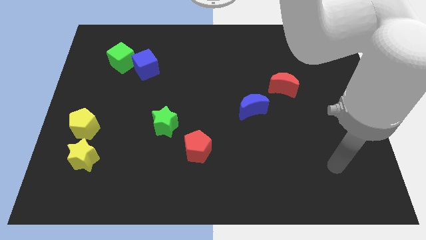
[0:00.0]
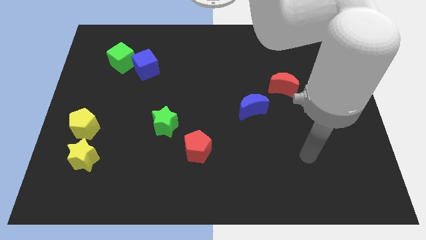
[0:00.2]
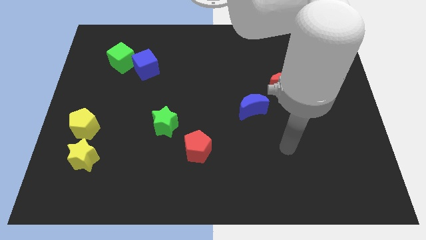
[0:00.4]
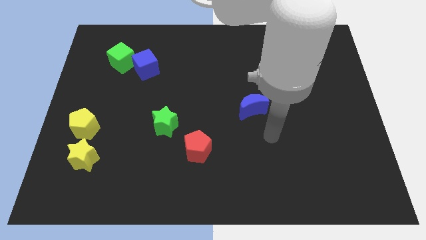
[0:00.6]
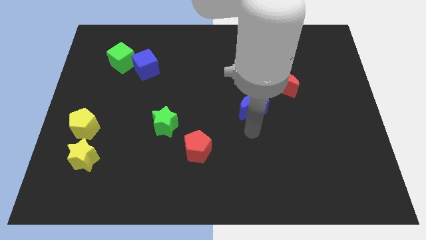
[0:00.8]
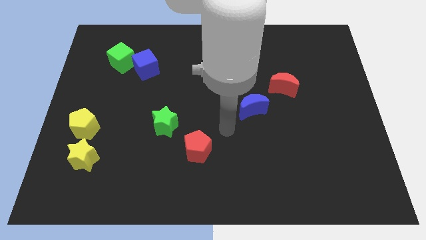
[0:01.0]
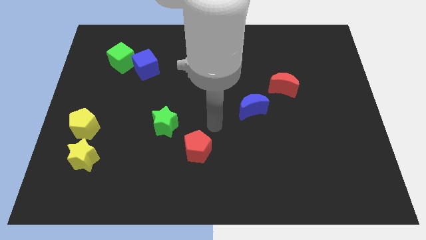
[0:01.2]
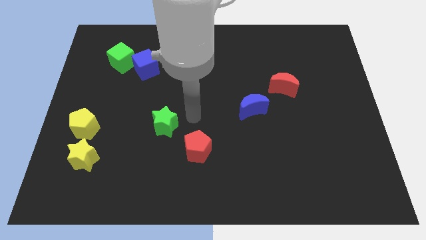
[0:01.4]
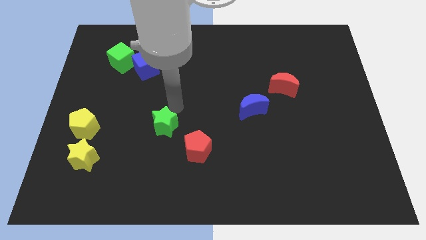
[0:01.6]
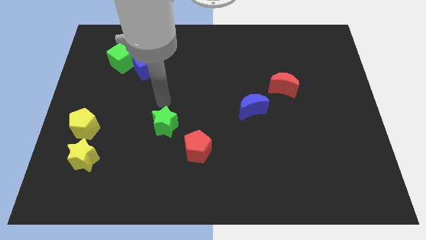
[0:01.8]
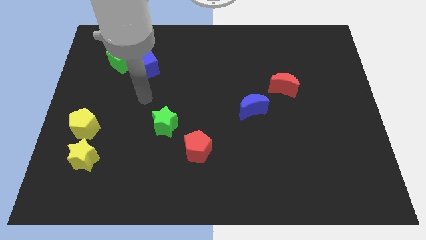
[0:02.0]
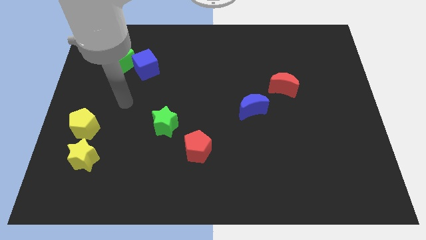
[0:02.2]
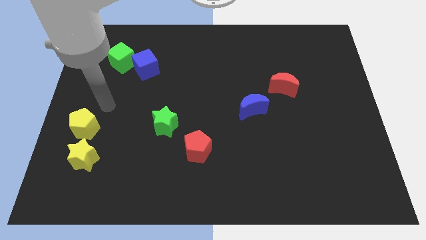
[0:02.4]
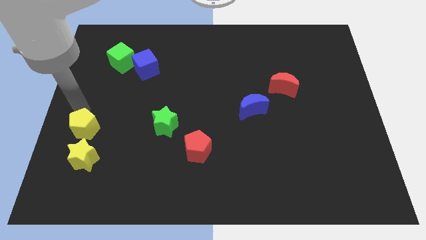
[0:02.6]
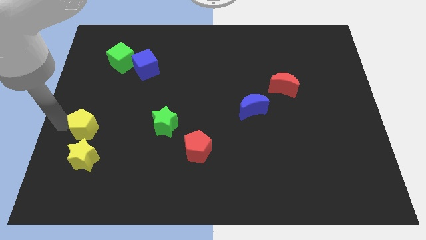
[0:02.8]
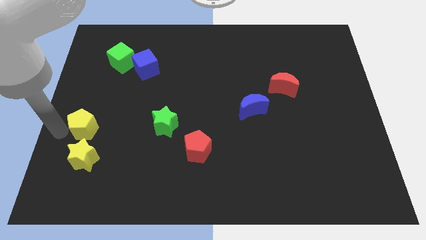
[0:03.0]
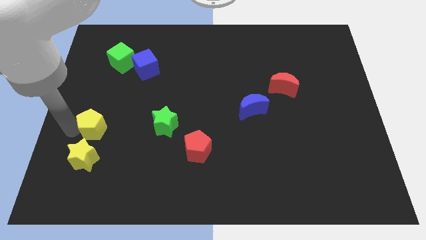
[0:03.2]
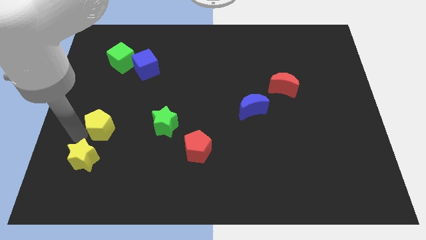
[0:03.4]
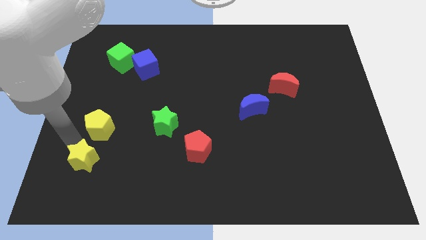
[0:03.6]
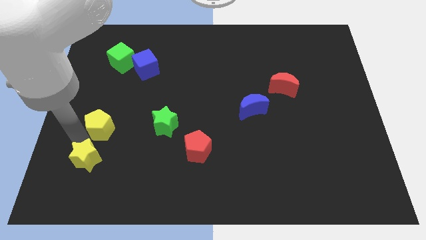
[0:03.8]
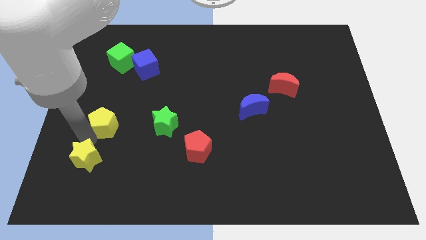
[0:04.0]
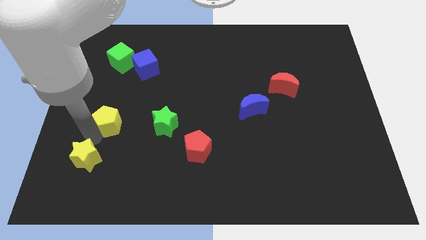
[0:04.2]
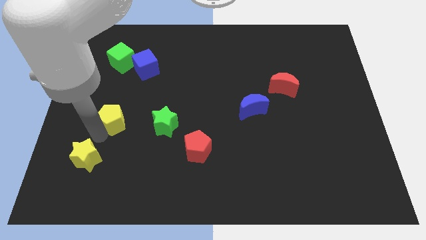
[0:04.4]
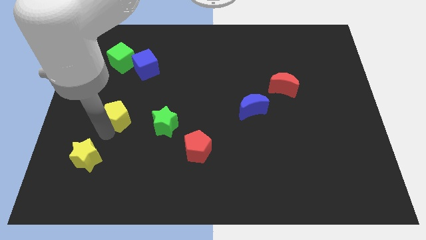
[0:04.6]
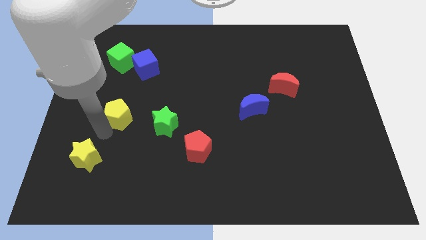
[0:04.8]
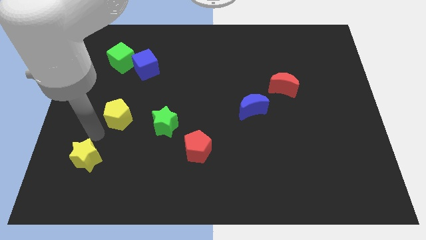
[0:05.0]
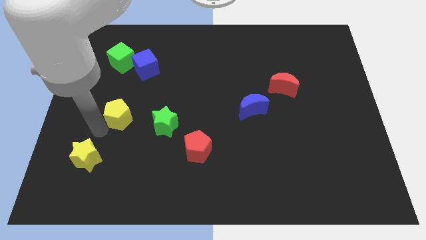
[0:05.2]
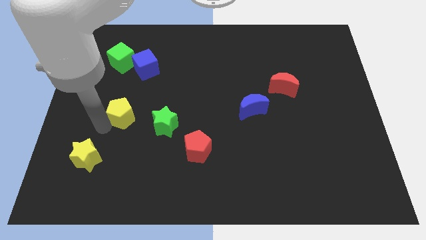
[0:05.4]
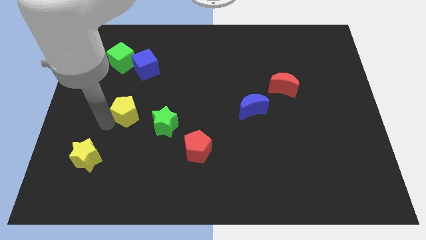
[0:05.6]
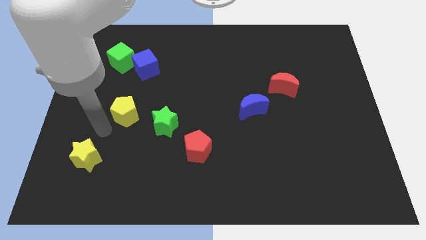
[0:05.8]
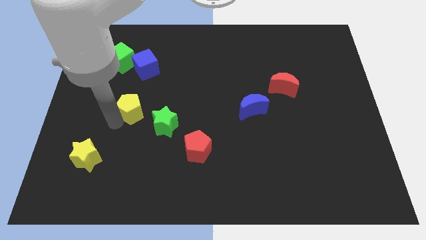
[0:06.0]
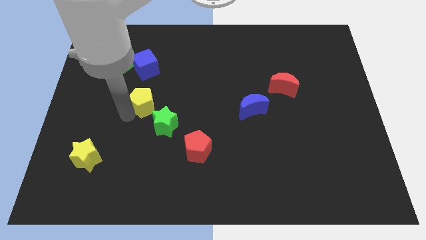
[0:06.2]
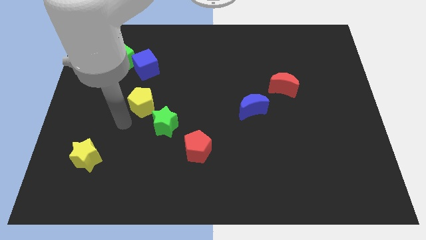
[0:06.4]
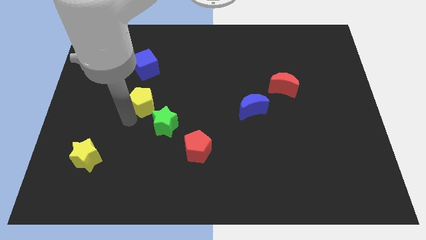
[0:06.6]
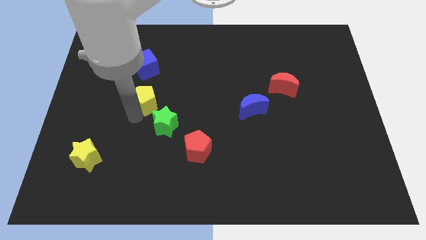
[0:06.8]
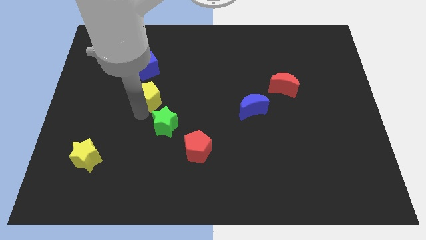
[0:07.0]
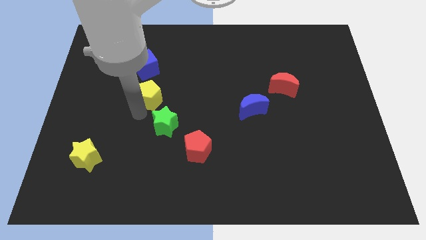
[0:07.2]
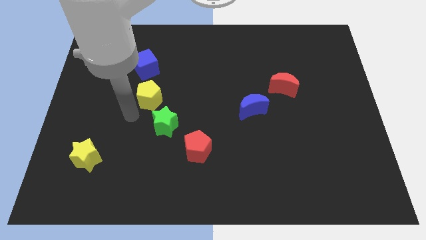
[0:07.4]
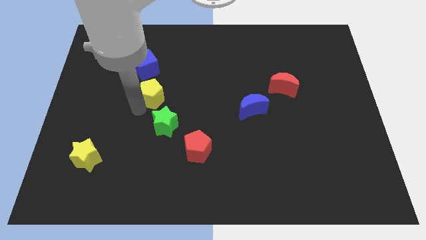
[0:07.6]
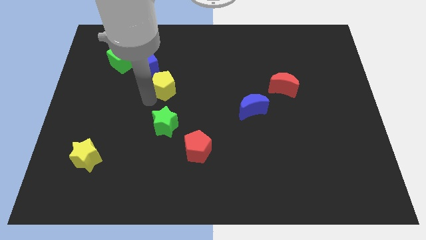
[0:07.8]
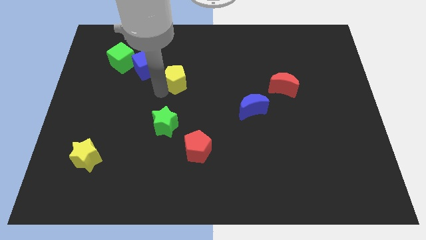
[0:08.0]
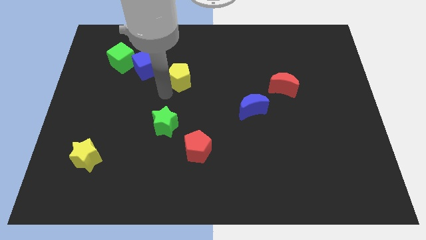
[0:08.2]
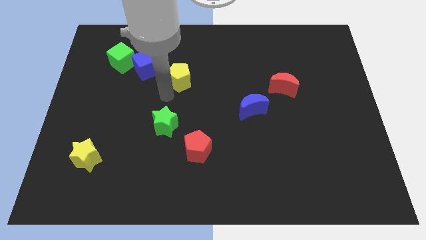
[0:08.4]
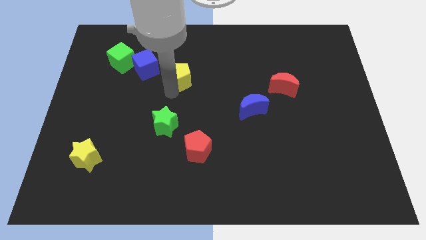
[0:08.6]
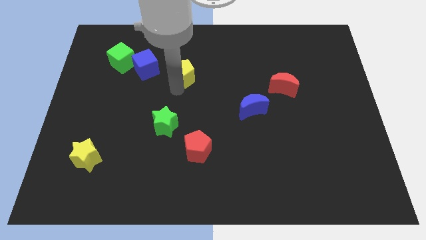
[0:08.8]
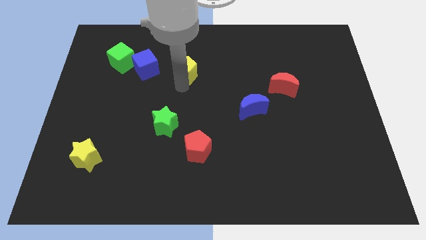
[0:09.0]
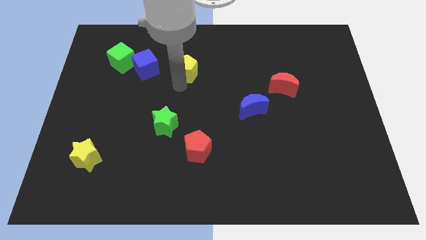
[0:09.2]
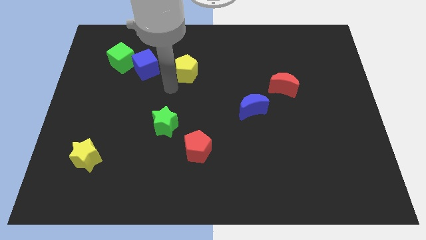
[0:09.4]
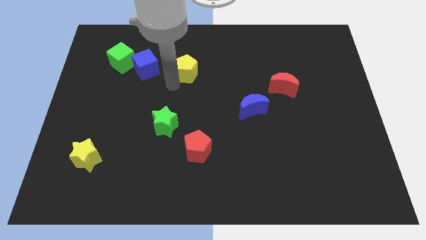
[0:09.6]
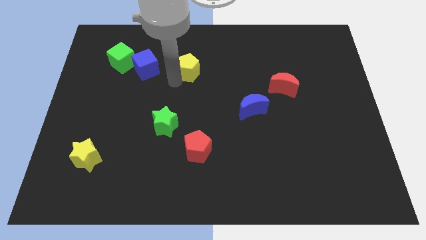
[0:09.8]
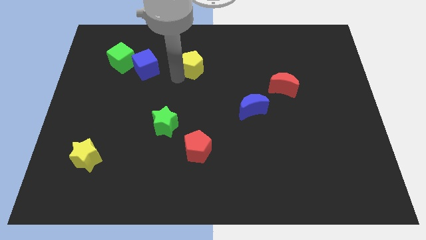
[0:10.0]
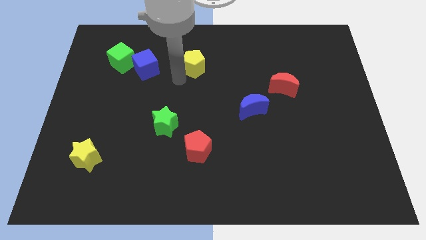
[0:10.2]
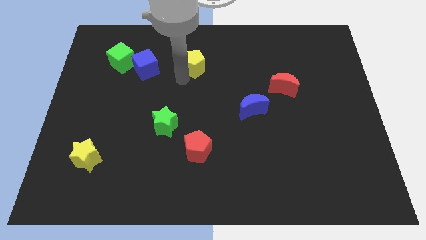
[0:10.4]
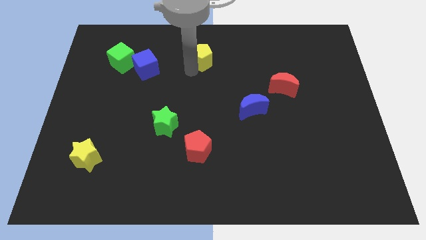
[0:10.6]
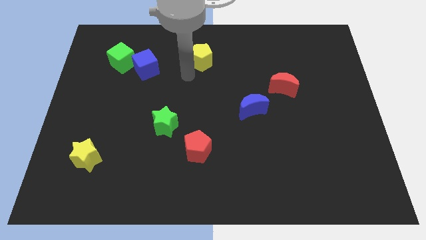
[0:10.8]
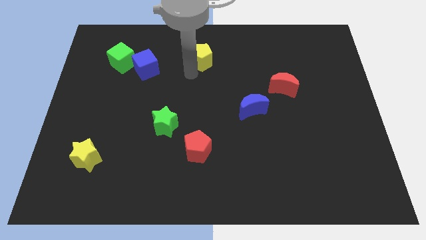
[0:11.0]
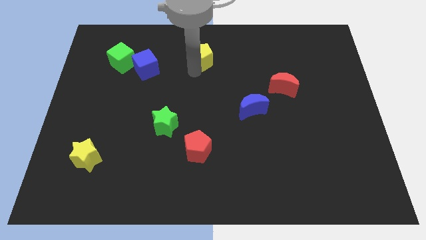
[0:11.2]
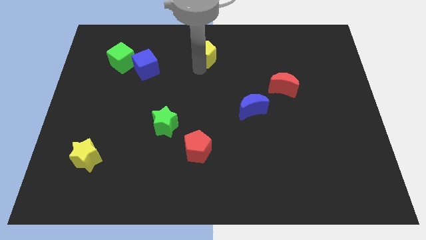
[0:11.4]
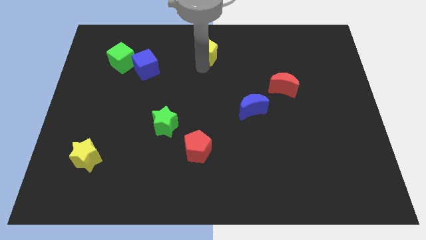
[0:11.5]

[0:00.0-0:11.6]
slide the yellow pentagon to the top side

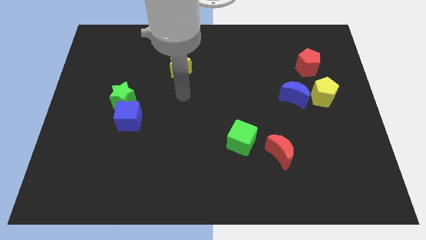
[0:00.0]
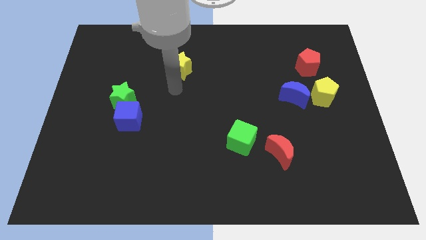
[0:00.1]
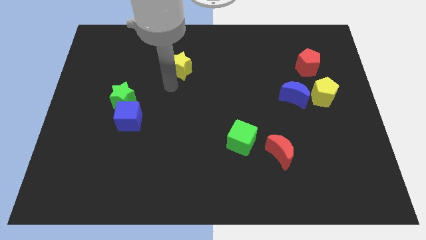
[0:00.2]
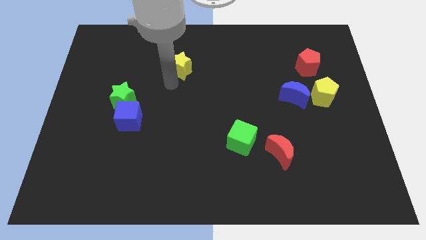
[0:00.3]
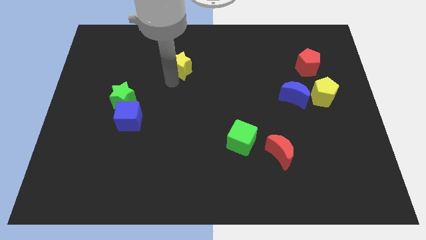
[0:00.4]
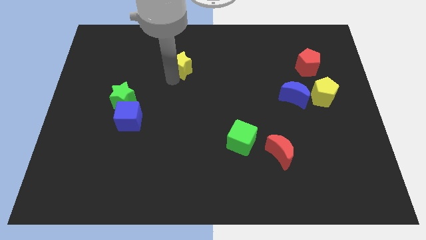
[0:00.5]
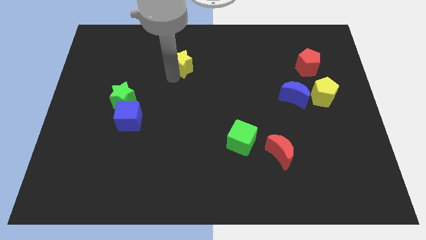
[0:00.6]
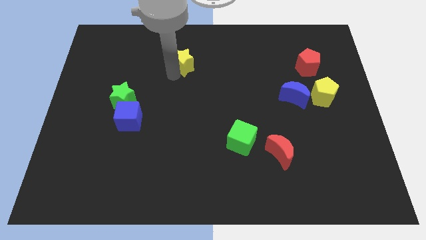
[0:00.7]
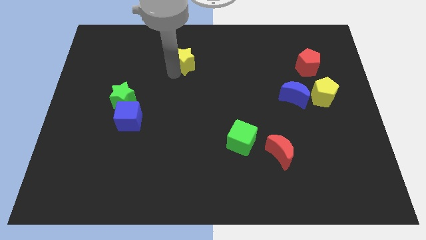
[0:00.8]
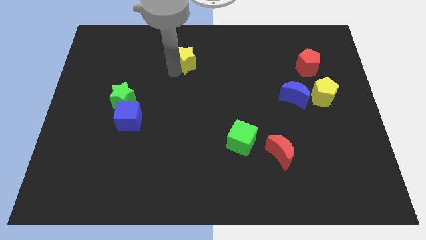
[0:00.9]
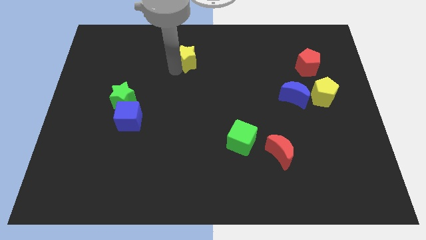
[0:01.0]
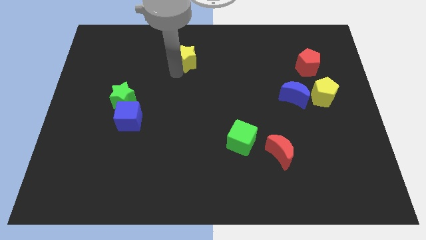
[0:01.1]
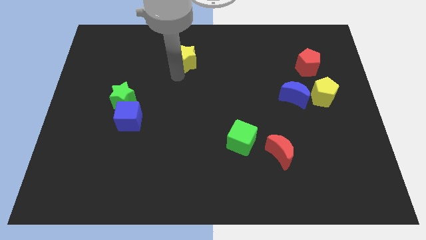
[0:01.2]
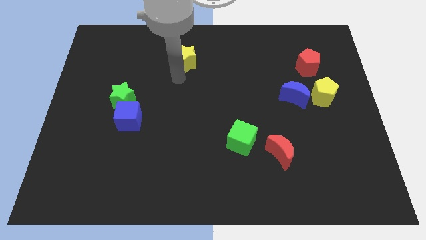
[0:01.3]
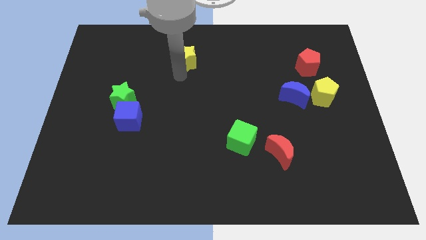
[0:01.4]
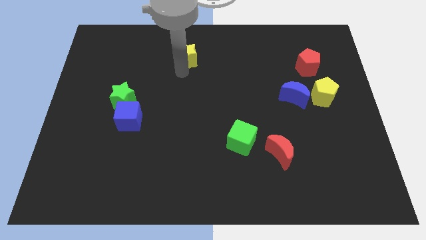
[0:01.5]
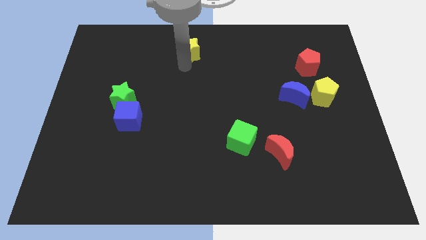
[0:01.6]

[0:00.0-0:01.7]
slide the yellow star to the top side

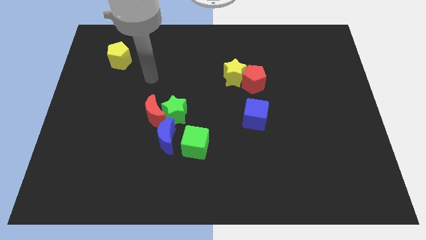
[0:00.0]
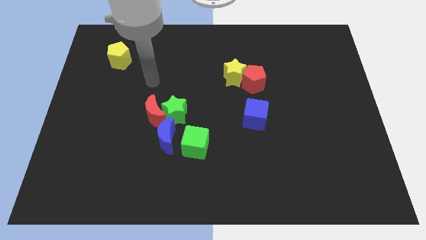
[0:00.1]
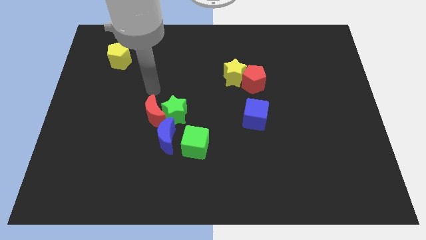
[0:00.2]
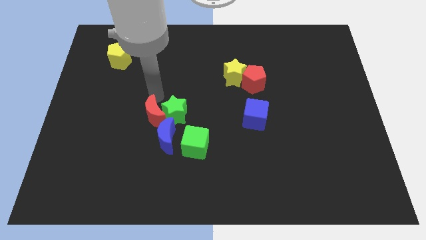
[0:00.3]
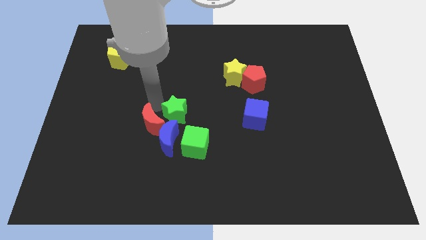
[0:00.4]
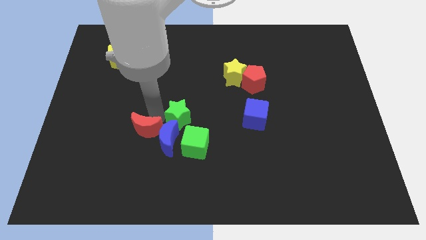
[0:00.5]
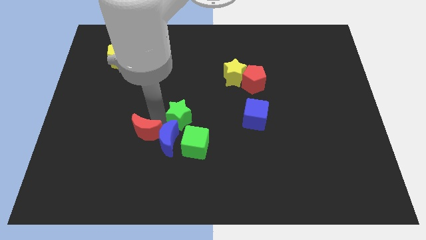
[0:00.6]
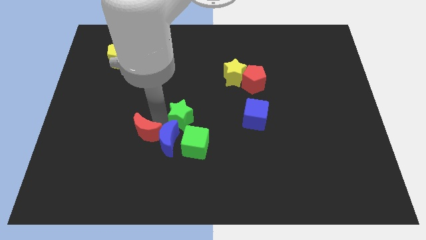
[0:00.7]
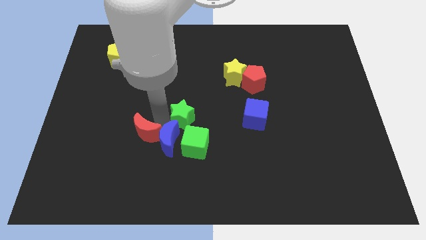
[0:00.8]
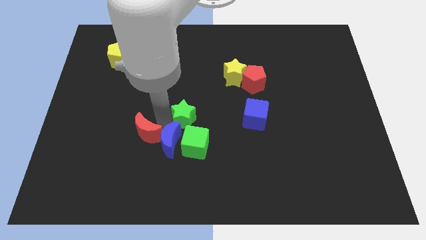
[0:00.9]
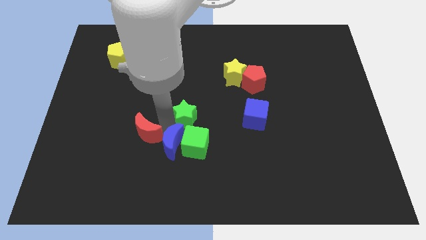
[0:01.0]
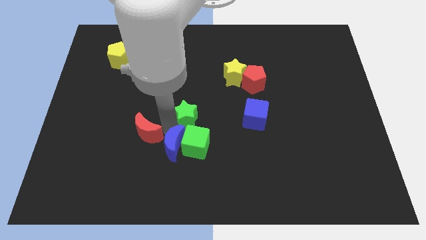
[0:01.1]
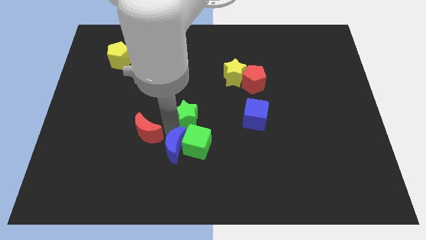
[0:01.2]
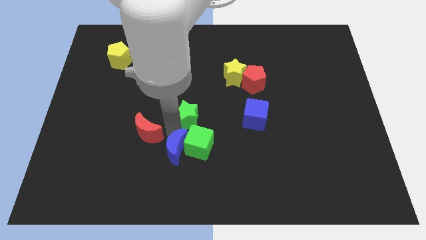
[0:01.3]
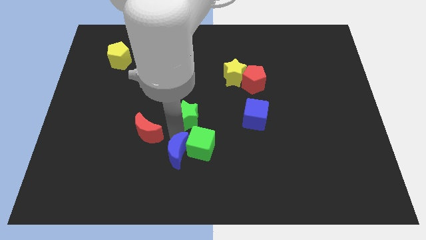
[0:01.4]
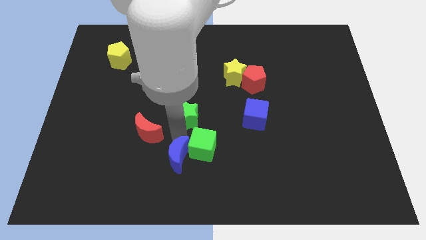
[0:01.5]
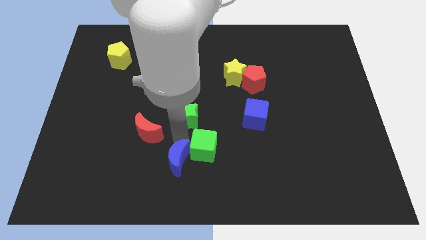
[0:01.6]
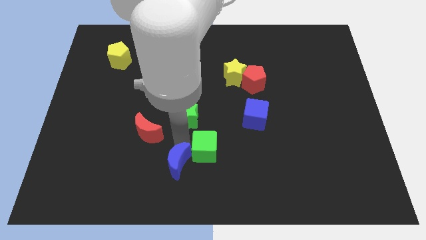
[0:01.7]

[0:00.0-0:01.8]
push the blue moon to the bottom side
